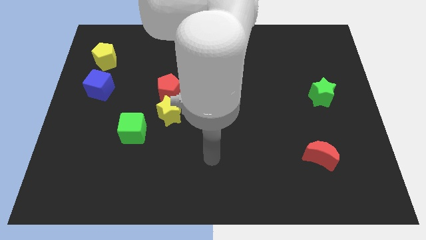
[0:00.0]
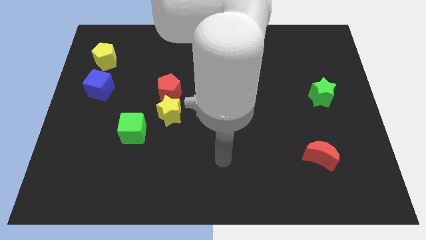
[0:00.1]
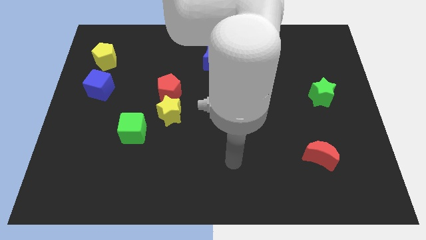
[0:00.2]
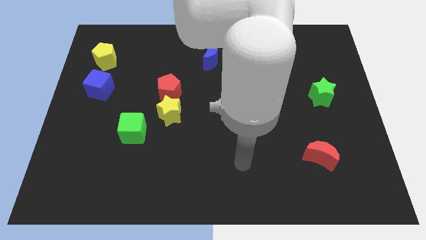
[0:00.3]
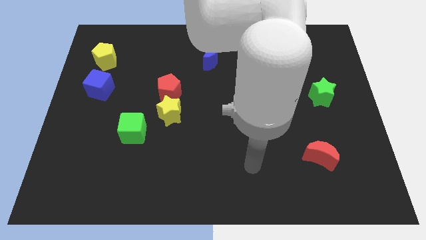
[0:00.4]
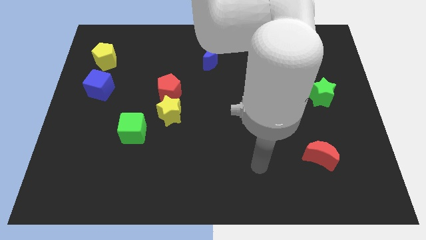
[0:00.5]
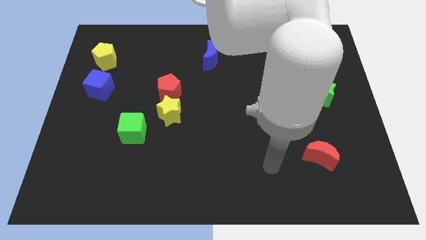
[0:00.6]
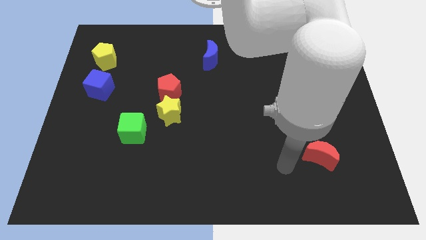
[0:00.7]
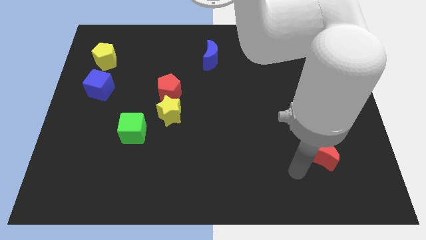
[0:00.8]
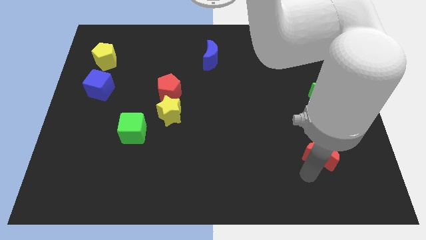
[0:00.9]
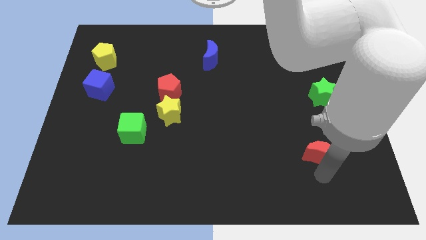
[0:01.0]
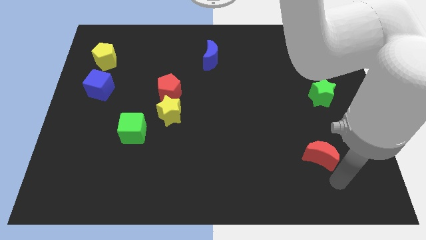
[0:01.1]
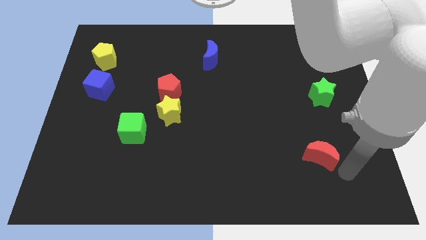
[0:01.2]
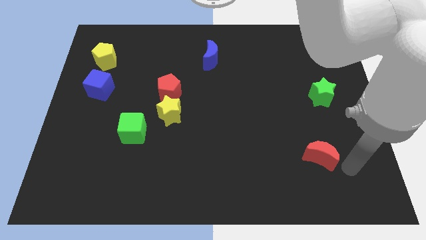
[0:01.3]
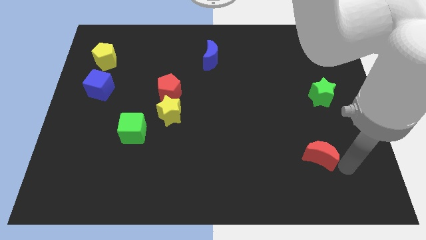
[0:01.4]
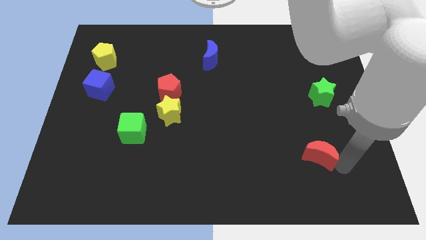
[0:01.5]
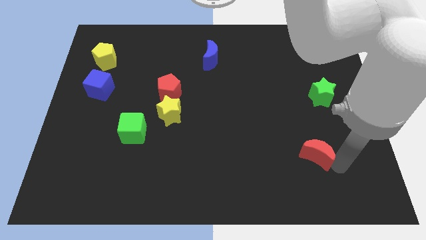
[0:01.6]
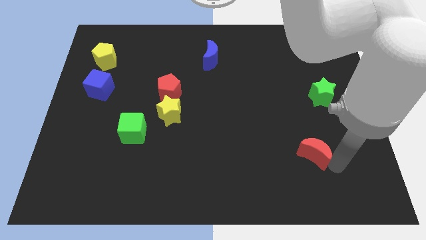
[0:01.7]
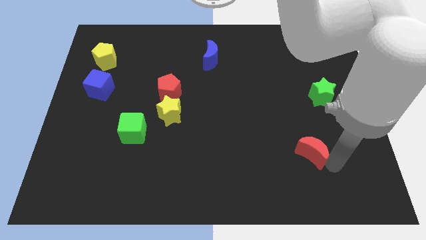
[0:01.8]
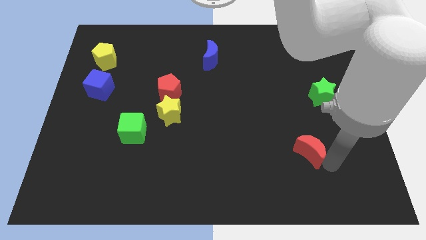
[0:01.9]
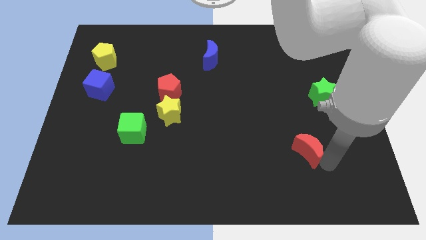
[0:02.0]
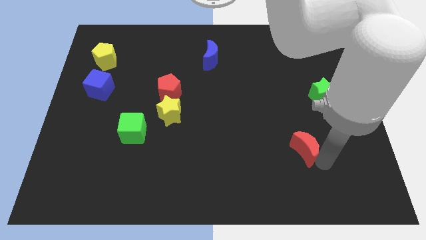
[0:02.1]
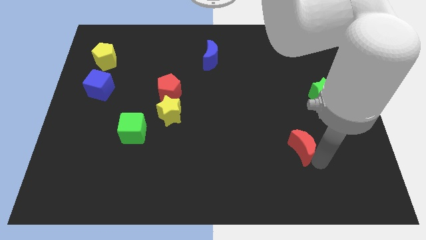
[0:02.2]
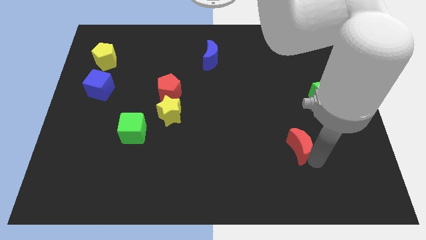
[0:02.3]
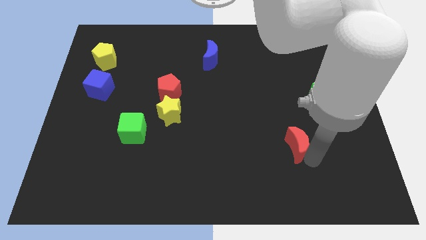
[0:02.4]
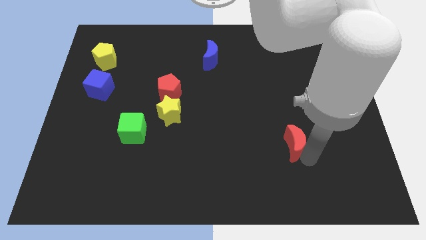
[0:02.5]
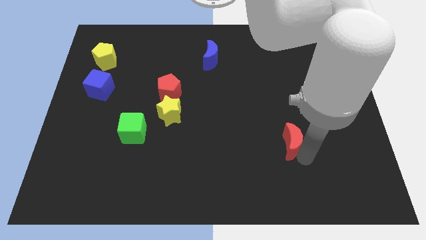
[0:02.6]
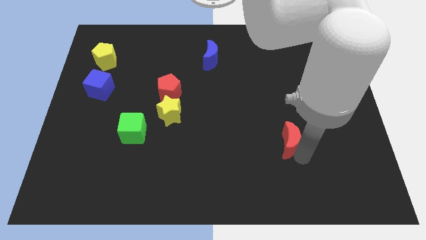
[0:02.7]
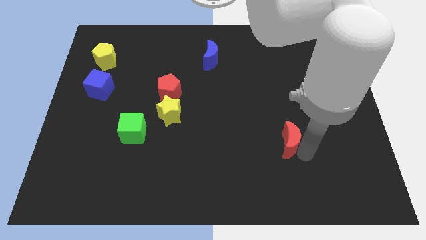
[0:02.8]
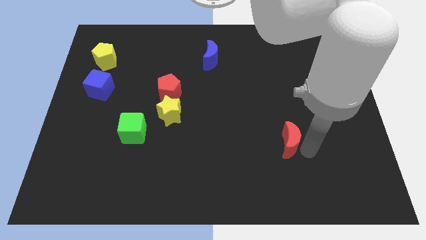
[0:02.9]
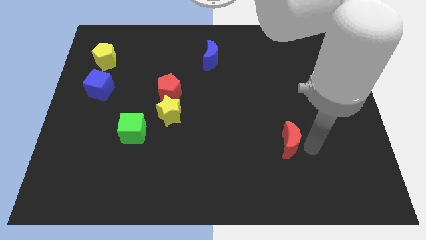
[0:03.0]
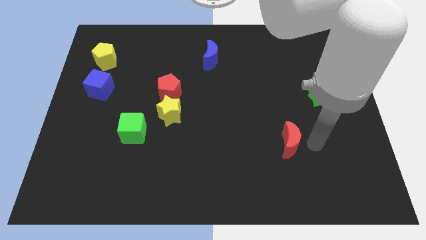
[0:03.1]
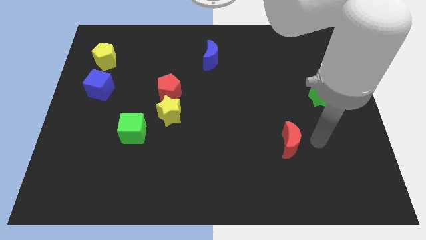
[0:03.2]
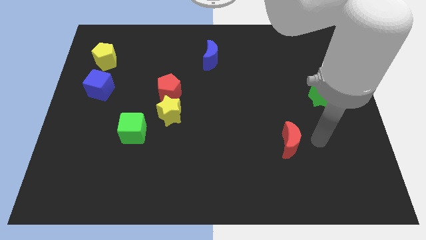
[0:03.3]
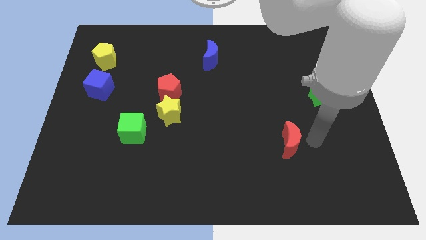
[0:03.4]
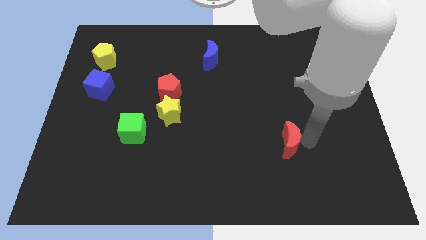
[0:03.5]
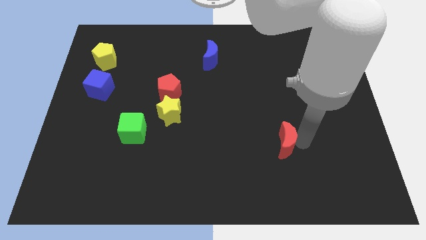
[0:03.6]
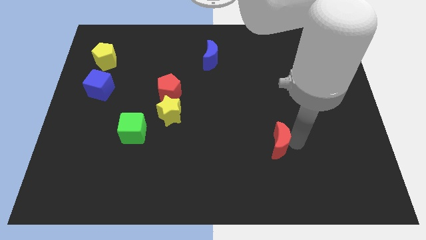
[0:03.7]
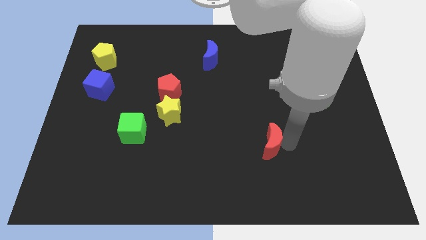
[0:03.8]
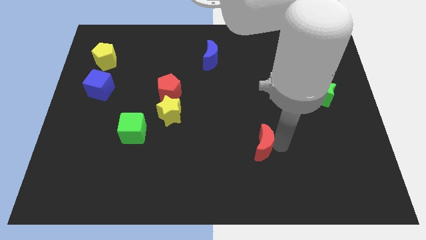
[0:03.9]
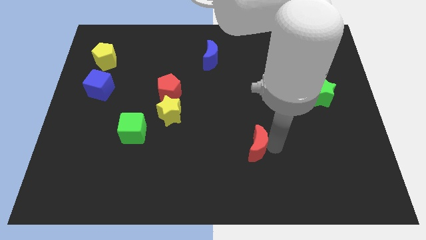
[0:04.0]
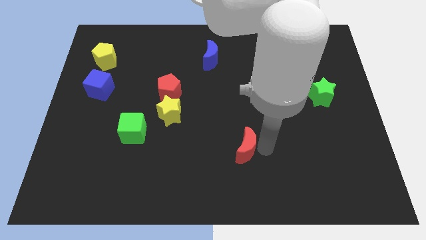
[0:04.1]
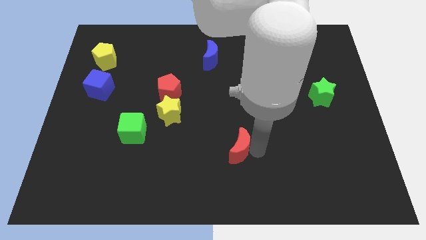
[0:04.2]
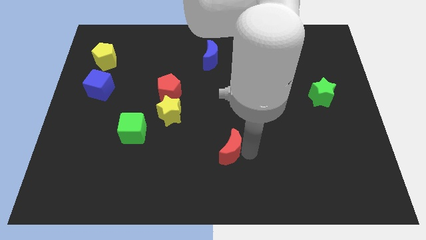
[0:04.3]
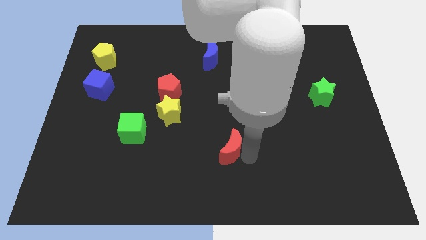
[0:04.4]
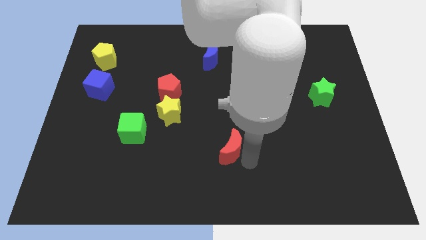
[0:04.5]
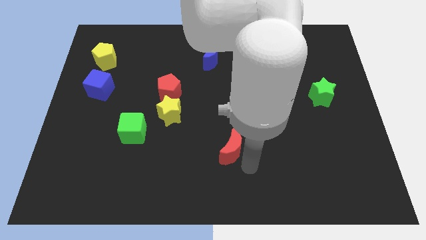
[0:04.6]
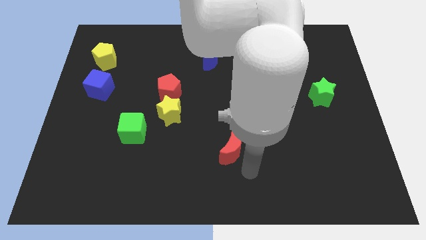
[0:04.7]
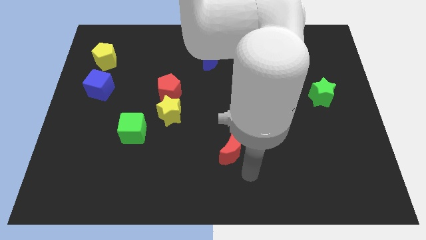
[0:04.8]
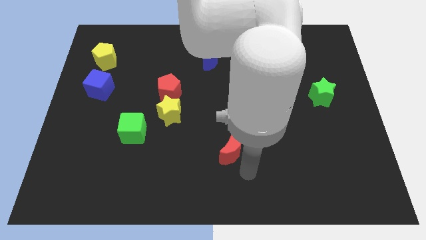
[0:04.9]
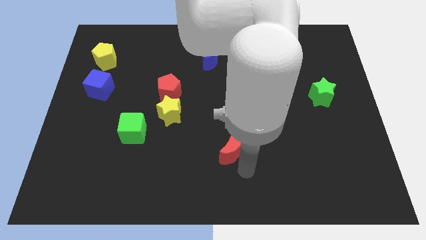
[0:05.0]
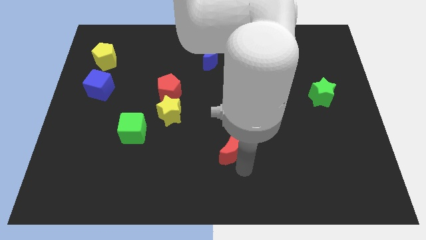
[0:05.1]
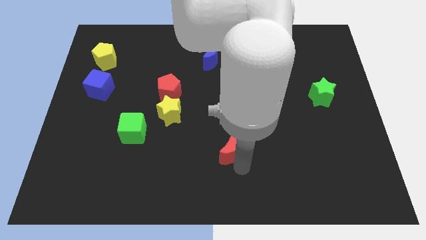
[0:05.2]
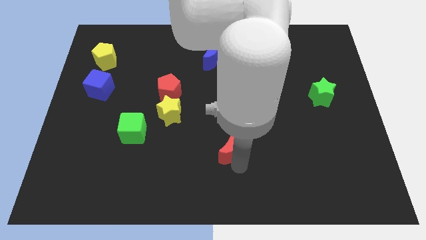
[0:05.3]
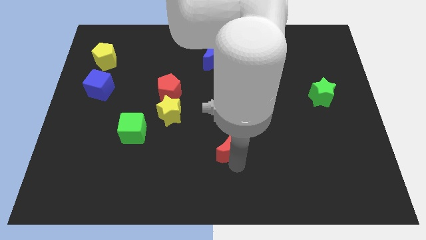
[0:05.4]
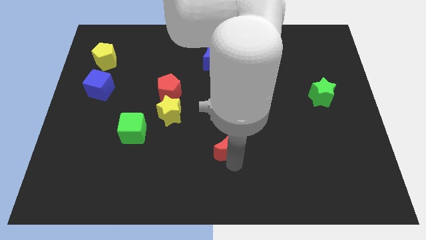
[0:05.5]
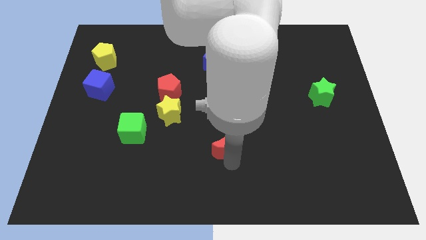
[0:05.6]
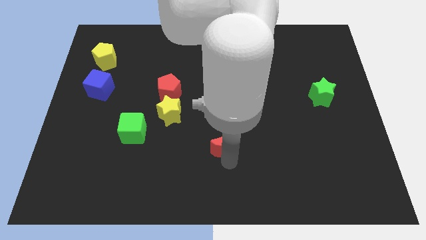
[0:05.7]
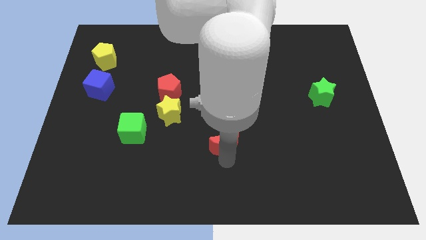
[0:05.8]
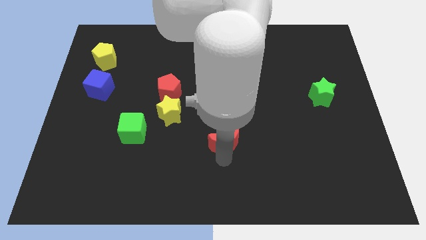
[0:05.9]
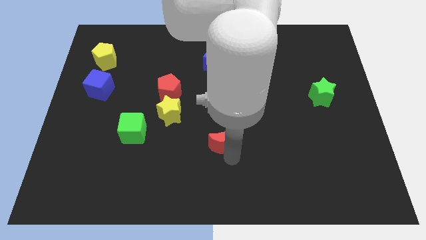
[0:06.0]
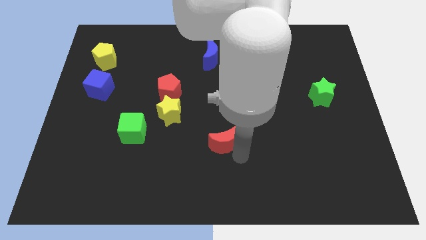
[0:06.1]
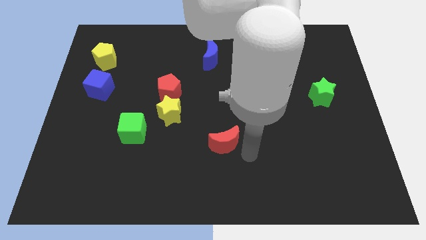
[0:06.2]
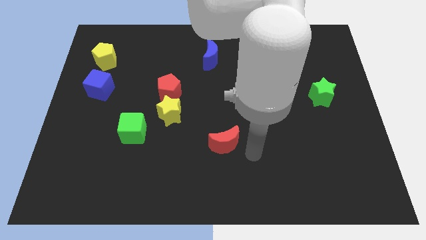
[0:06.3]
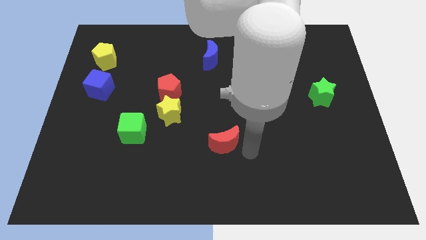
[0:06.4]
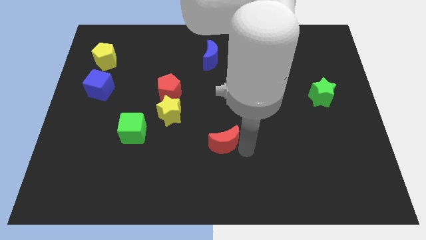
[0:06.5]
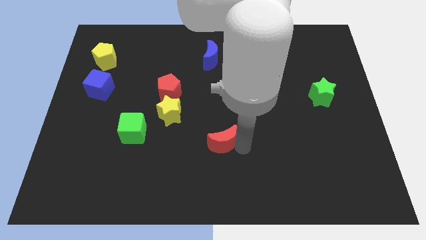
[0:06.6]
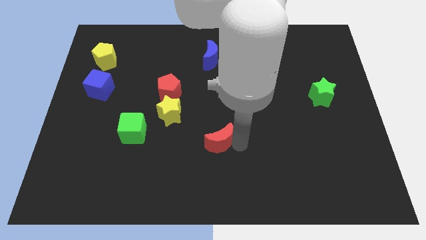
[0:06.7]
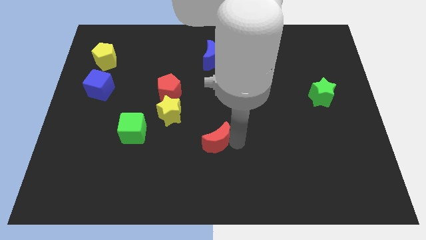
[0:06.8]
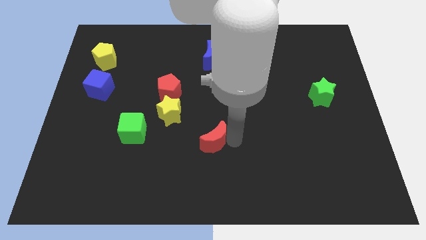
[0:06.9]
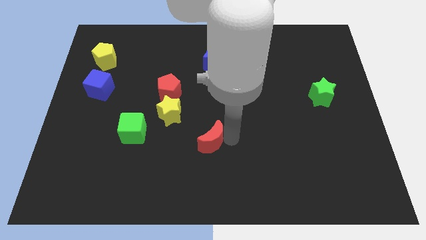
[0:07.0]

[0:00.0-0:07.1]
put the red moon to the bottom right side of the yellow star
